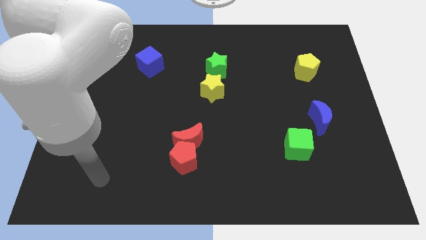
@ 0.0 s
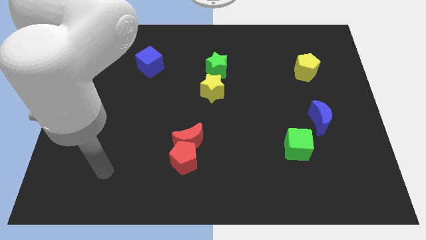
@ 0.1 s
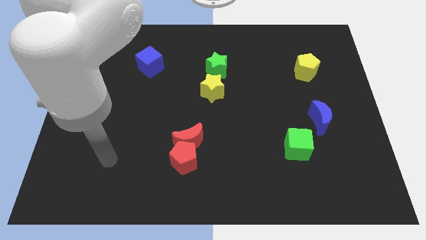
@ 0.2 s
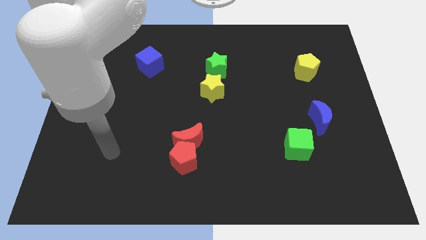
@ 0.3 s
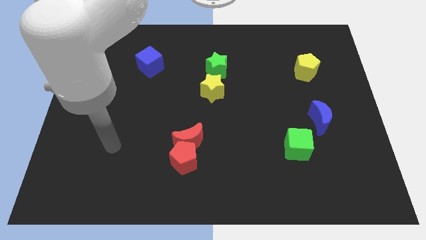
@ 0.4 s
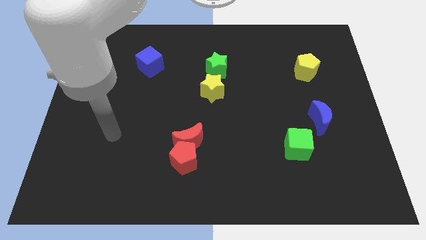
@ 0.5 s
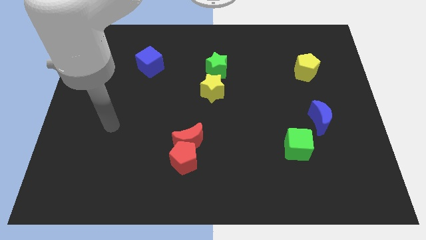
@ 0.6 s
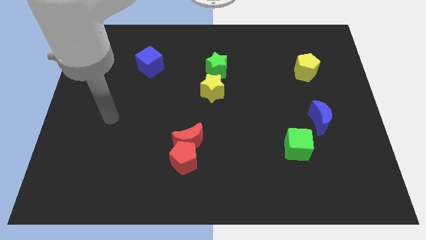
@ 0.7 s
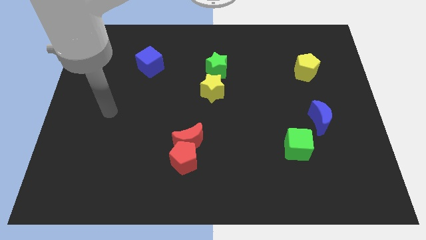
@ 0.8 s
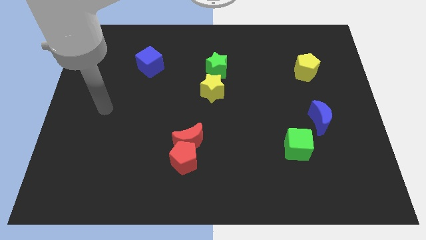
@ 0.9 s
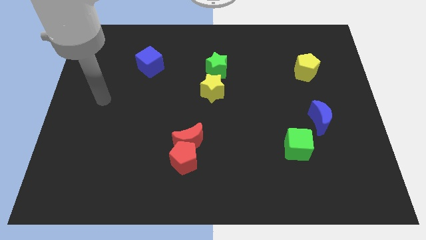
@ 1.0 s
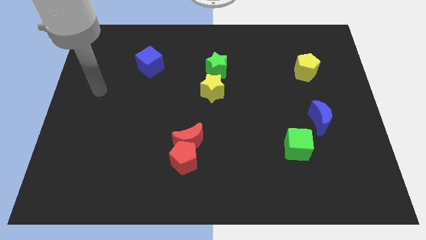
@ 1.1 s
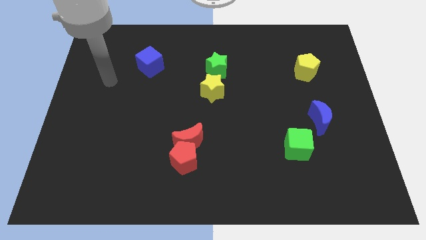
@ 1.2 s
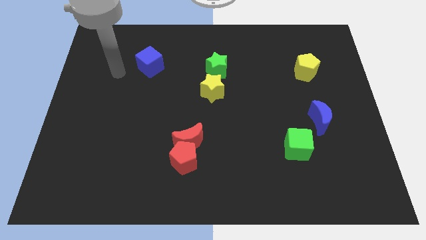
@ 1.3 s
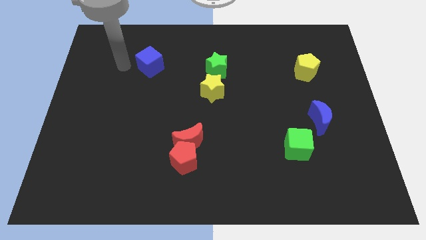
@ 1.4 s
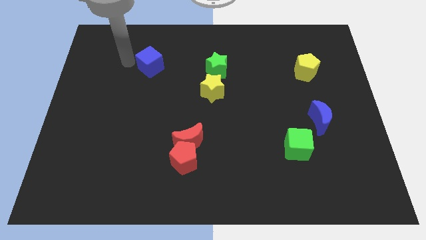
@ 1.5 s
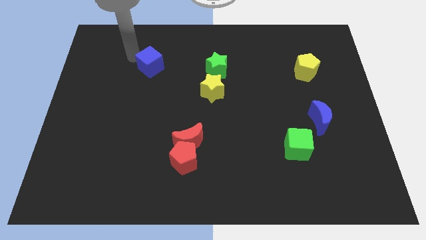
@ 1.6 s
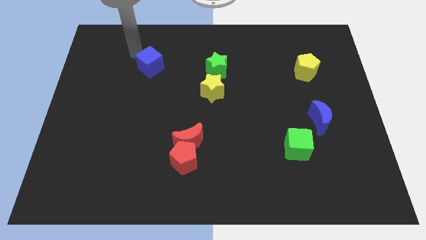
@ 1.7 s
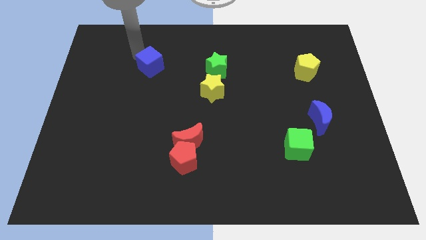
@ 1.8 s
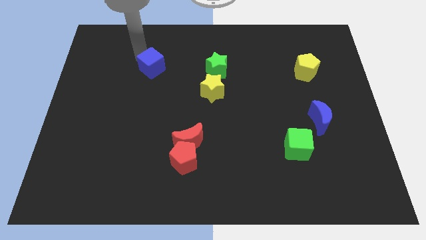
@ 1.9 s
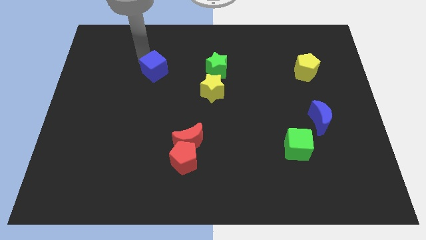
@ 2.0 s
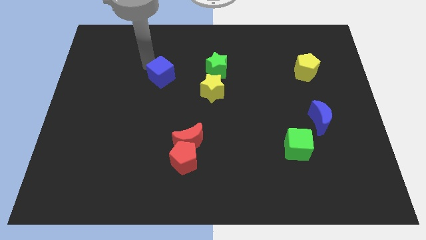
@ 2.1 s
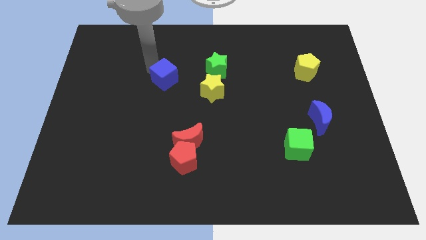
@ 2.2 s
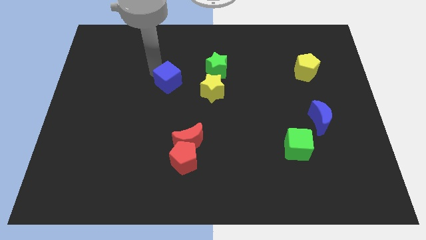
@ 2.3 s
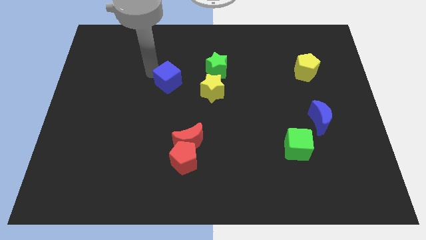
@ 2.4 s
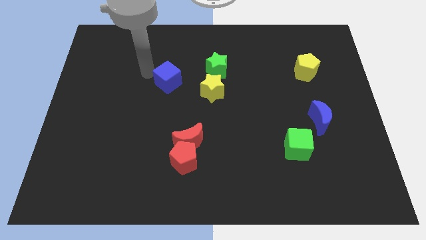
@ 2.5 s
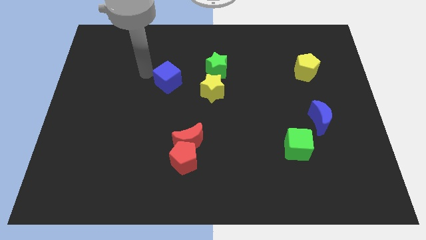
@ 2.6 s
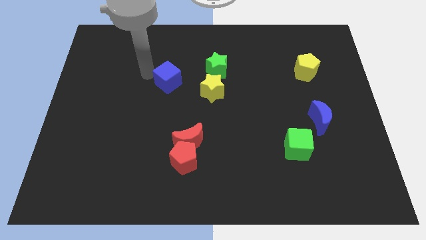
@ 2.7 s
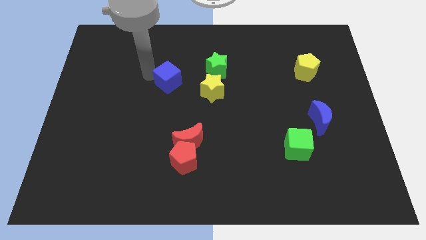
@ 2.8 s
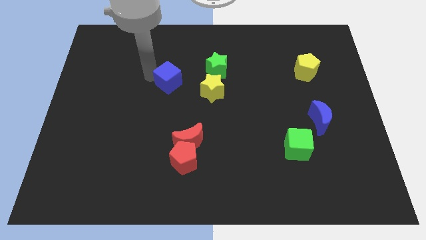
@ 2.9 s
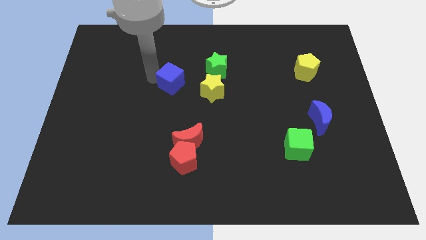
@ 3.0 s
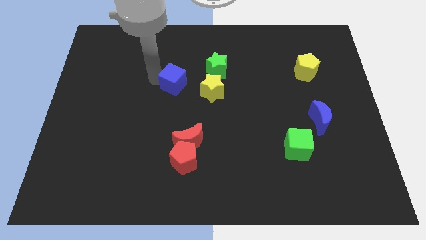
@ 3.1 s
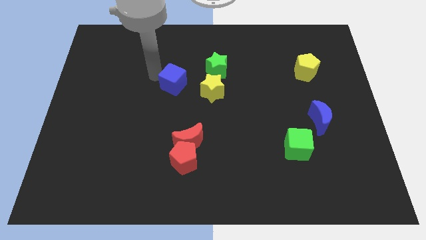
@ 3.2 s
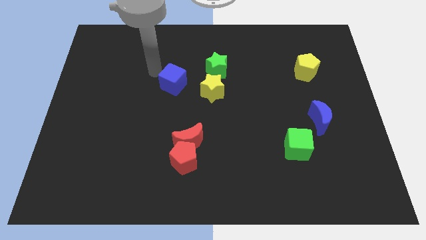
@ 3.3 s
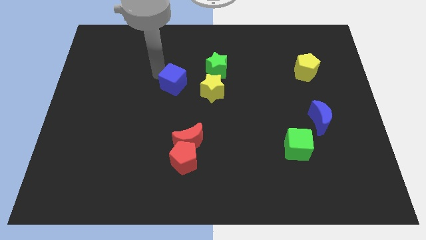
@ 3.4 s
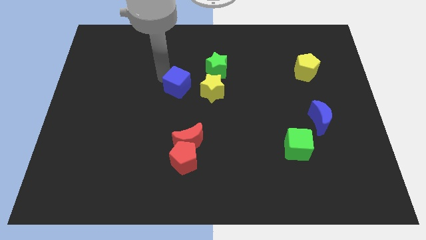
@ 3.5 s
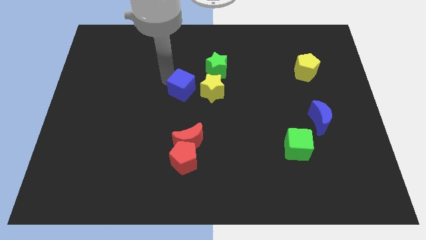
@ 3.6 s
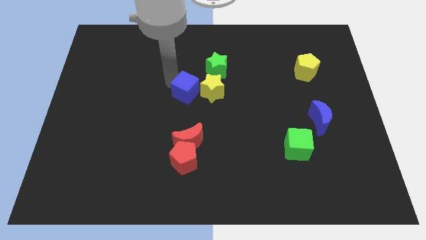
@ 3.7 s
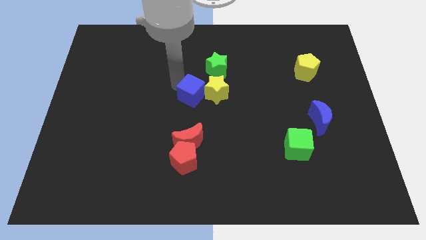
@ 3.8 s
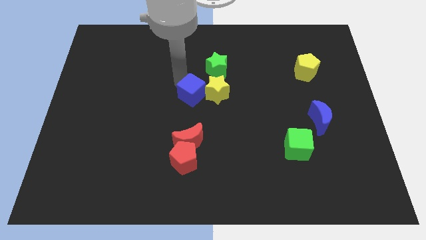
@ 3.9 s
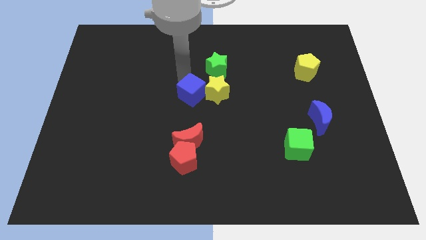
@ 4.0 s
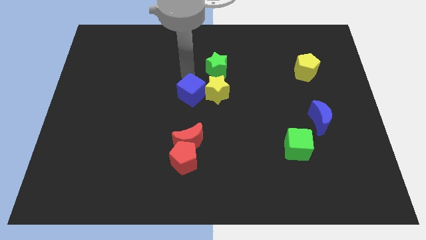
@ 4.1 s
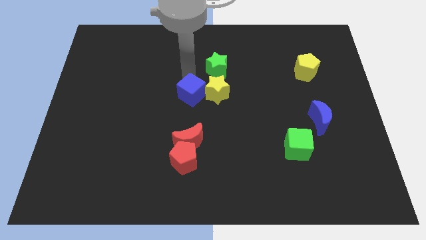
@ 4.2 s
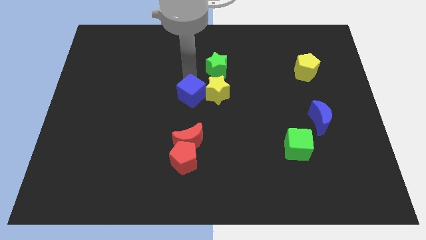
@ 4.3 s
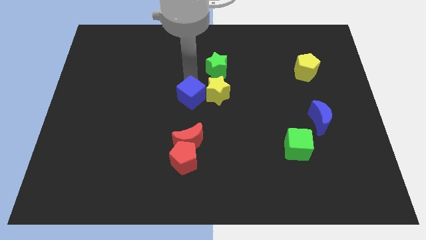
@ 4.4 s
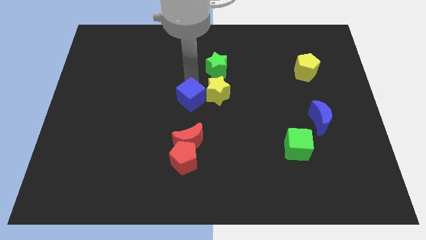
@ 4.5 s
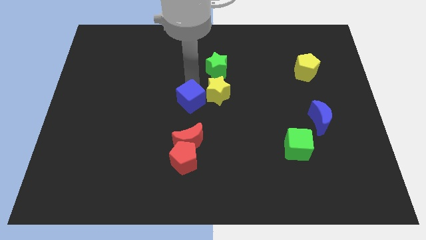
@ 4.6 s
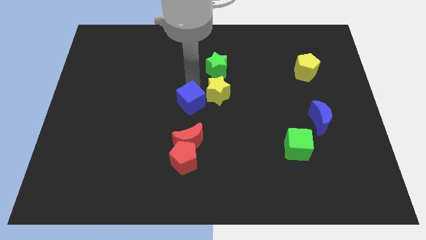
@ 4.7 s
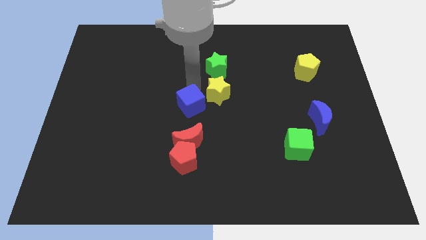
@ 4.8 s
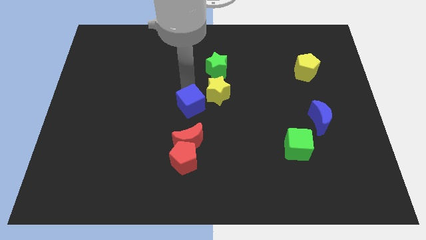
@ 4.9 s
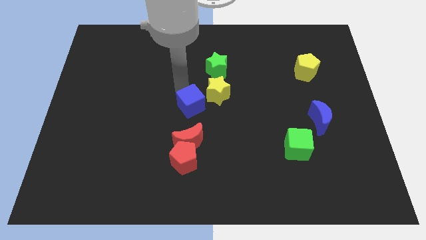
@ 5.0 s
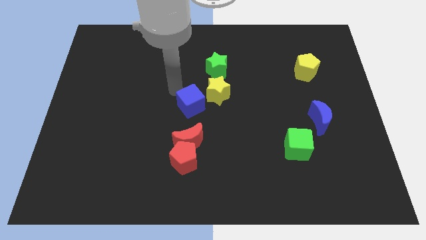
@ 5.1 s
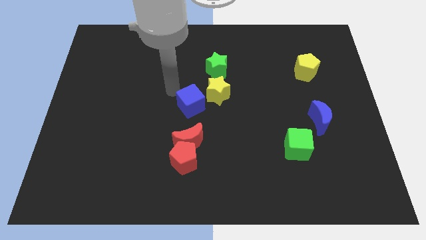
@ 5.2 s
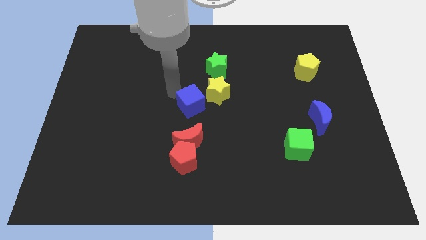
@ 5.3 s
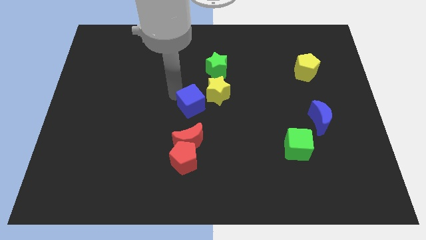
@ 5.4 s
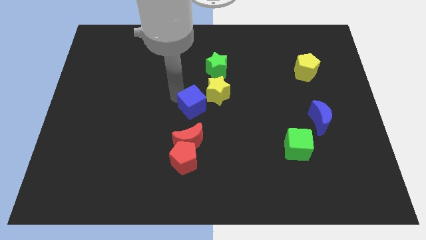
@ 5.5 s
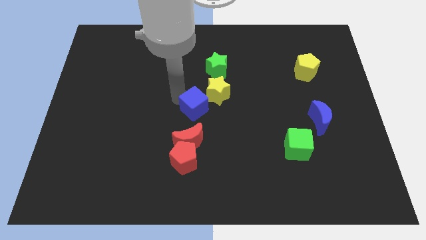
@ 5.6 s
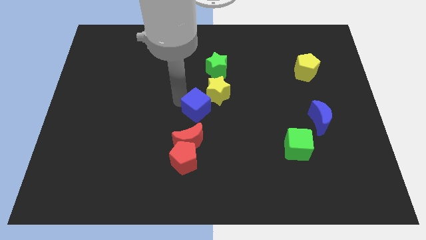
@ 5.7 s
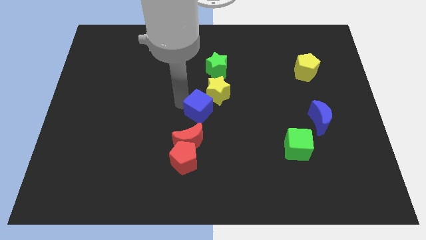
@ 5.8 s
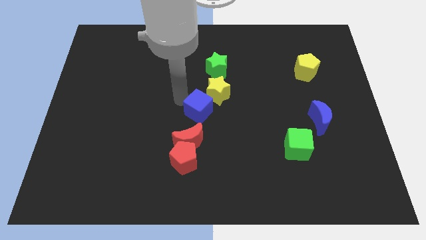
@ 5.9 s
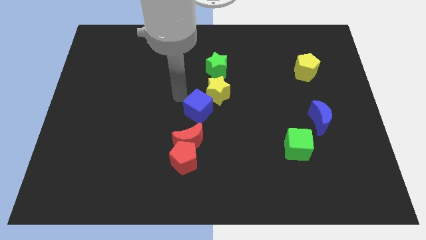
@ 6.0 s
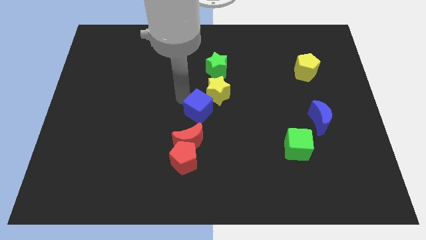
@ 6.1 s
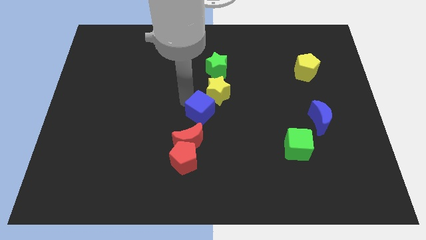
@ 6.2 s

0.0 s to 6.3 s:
move the blue cube diagonally down and right

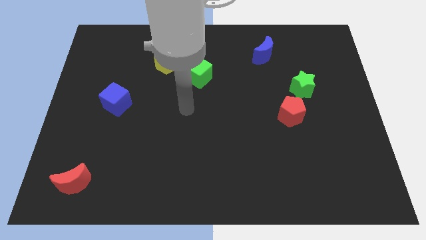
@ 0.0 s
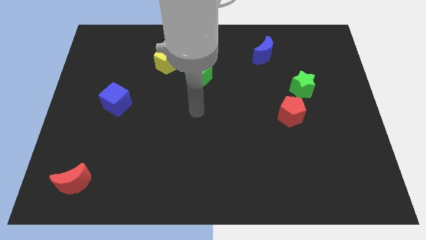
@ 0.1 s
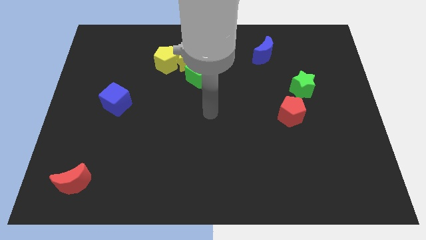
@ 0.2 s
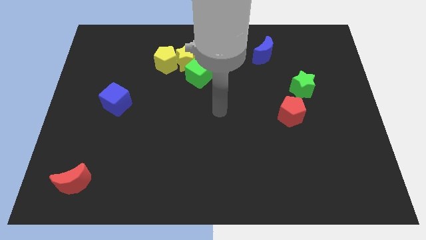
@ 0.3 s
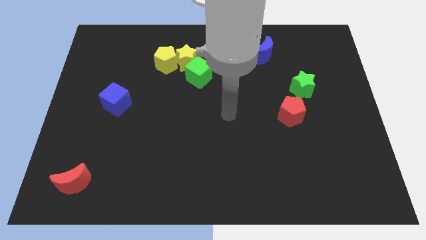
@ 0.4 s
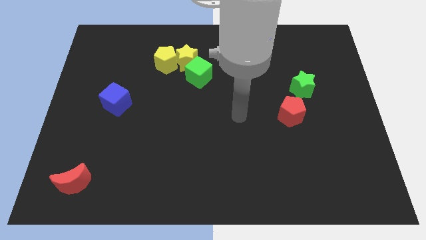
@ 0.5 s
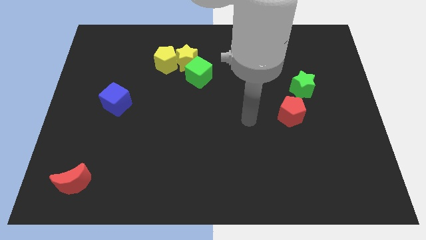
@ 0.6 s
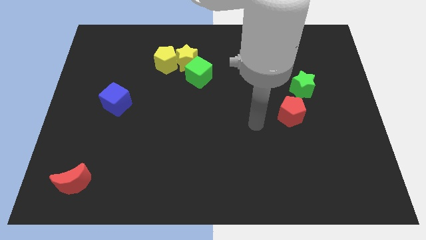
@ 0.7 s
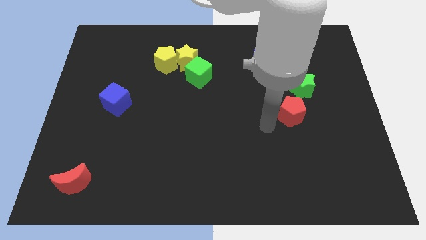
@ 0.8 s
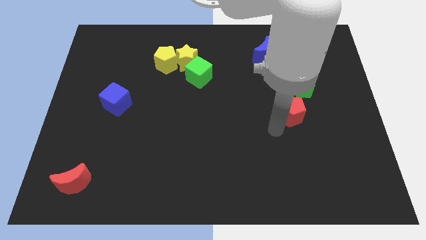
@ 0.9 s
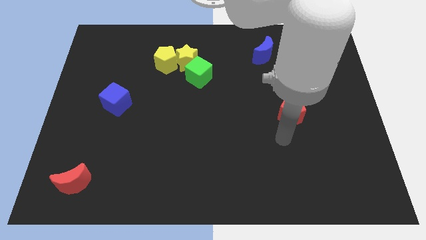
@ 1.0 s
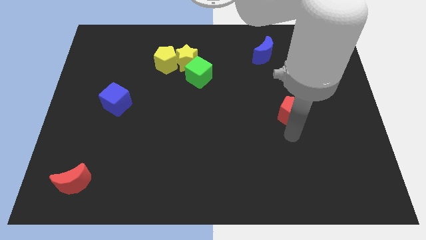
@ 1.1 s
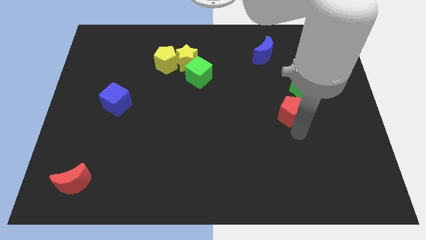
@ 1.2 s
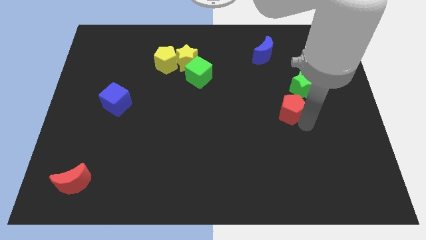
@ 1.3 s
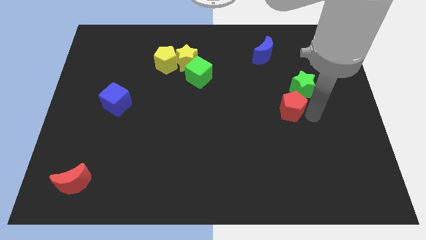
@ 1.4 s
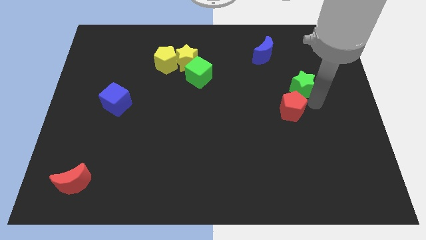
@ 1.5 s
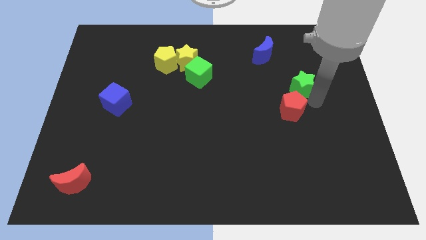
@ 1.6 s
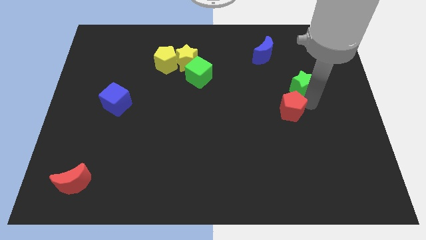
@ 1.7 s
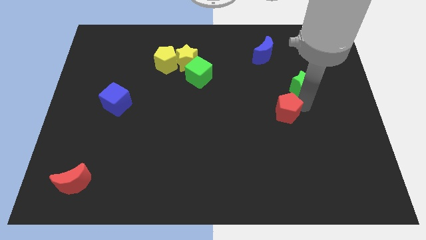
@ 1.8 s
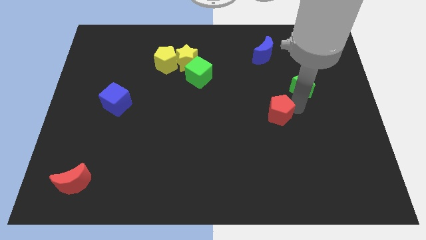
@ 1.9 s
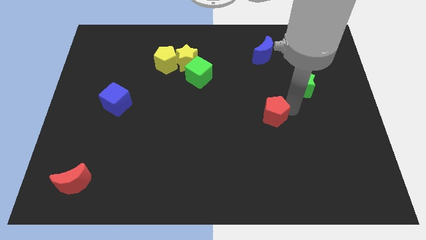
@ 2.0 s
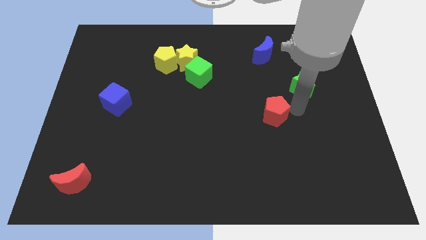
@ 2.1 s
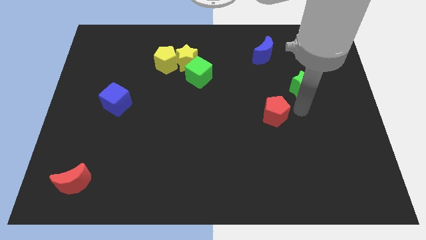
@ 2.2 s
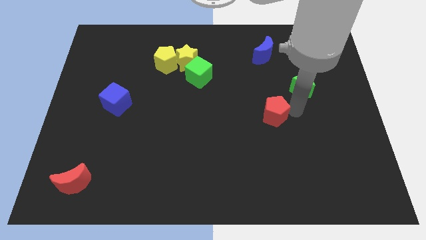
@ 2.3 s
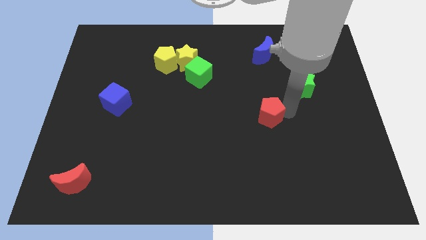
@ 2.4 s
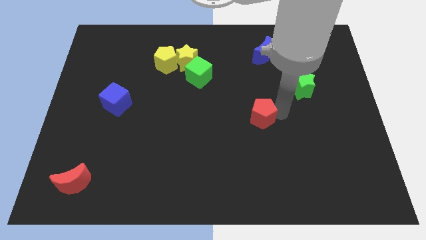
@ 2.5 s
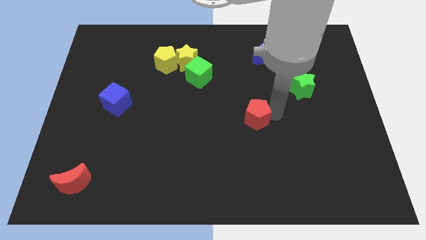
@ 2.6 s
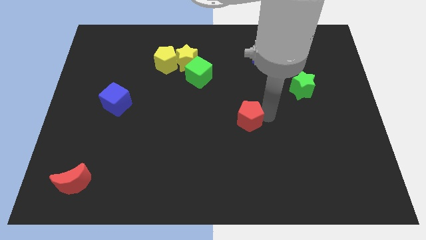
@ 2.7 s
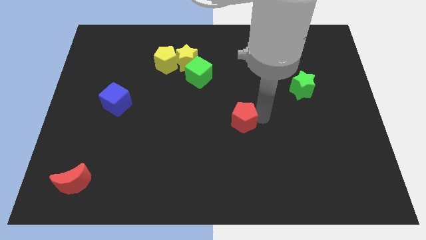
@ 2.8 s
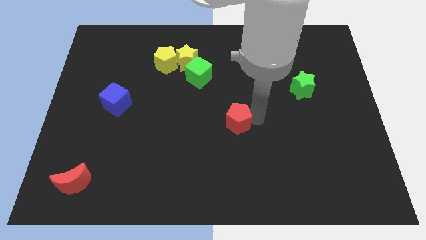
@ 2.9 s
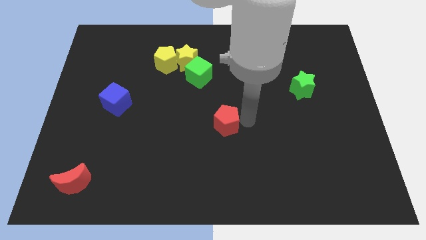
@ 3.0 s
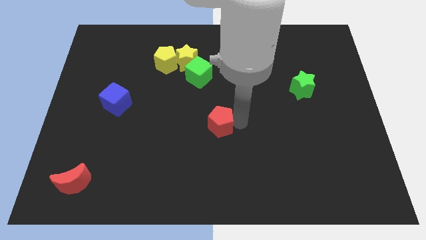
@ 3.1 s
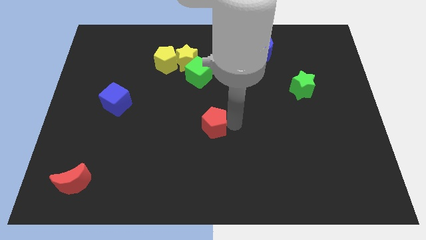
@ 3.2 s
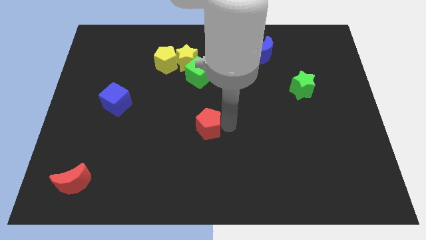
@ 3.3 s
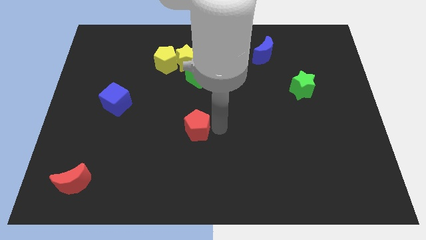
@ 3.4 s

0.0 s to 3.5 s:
push the red pentagon to the left
